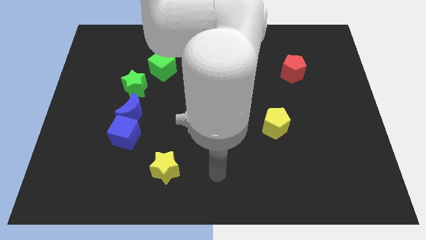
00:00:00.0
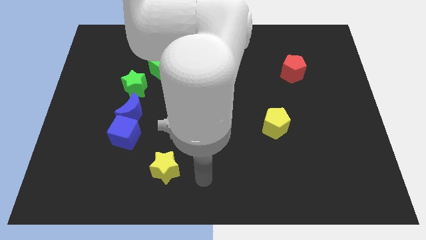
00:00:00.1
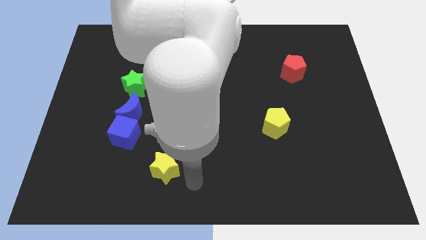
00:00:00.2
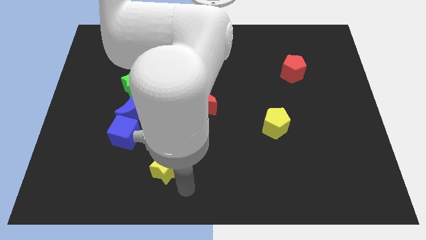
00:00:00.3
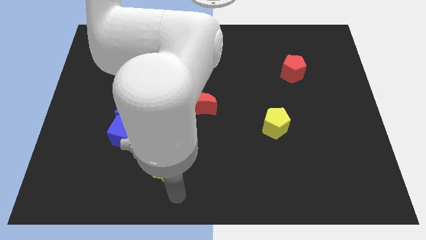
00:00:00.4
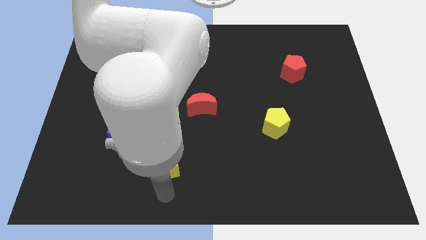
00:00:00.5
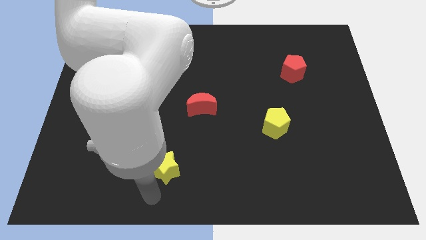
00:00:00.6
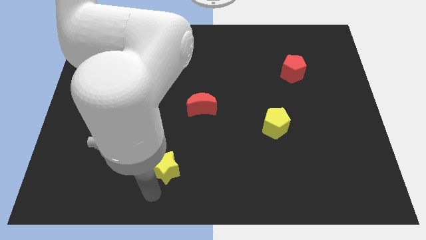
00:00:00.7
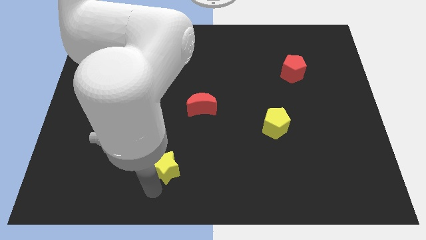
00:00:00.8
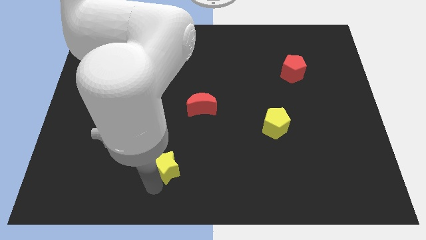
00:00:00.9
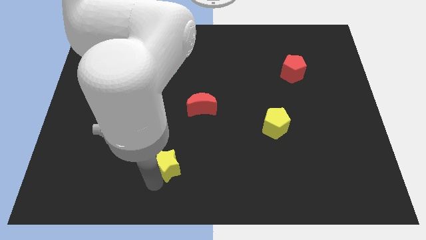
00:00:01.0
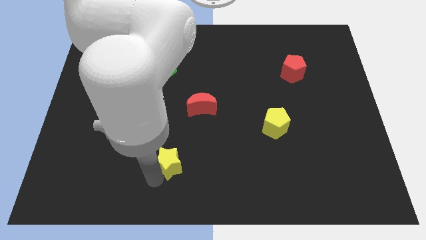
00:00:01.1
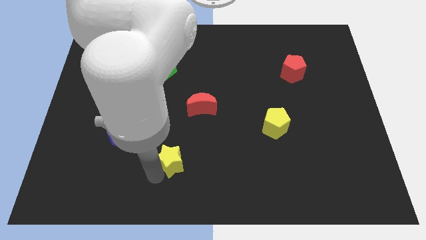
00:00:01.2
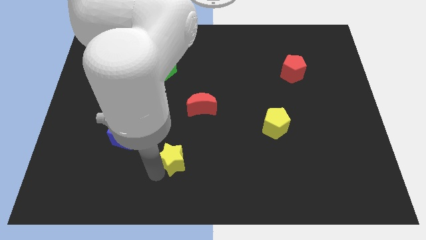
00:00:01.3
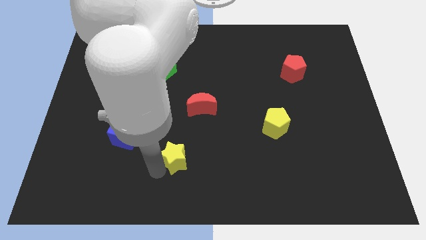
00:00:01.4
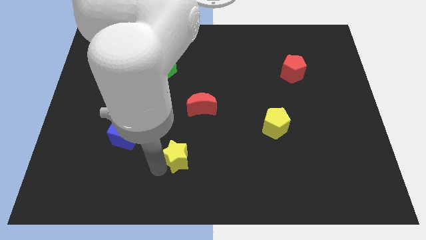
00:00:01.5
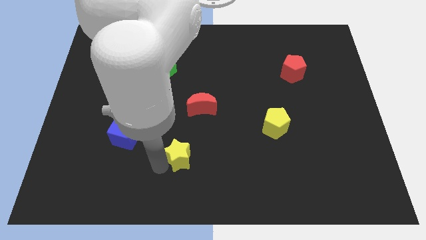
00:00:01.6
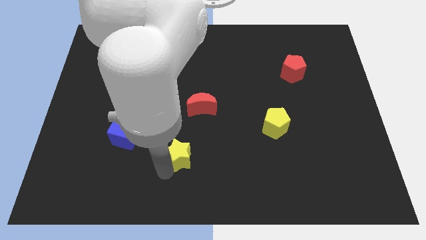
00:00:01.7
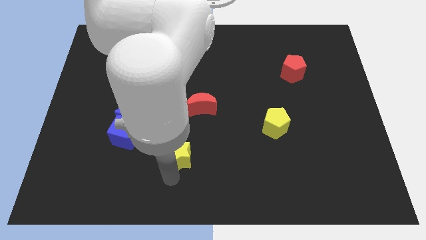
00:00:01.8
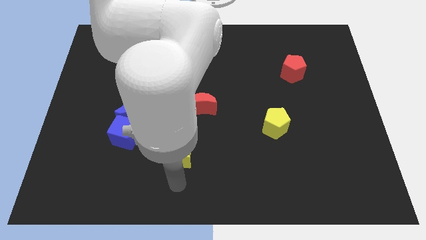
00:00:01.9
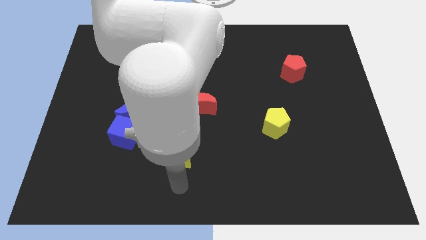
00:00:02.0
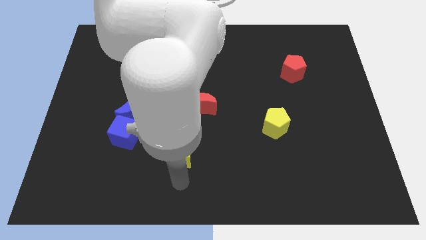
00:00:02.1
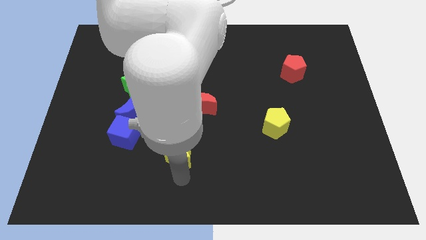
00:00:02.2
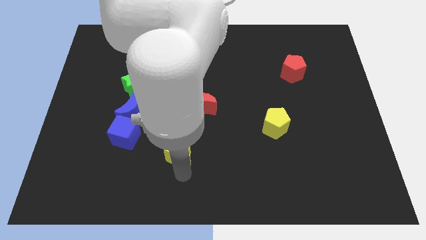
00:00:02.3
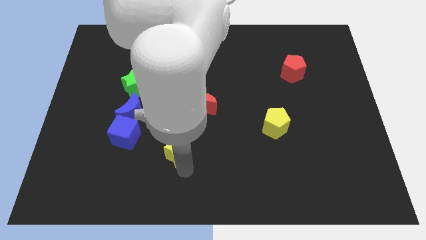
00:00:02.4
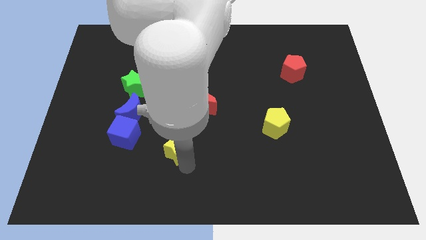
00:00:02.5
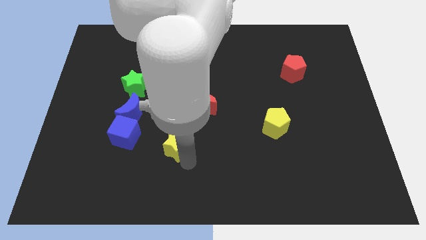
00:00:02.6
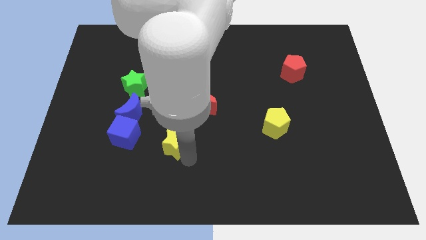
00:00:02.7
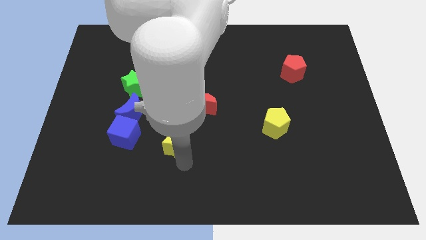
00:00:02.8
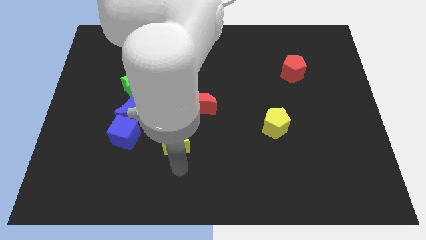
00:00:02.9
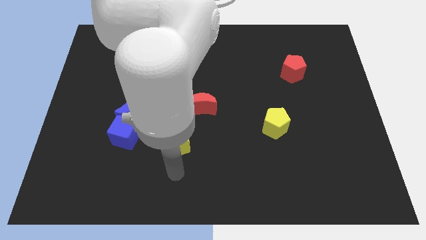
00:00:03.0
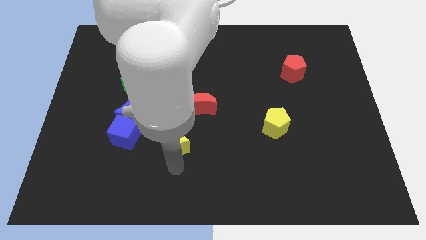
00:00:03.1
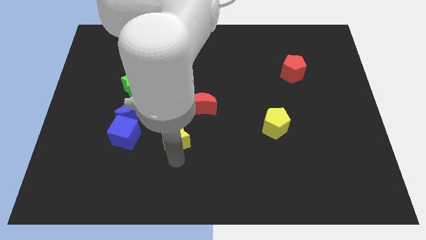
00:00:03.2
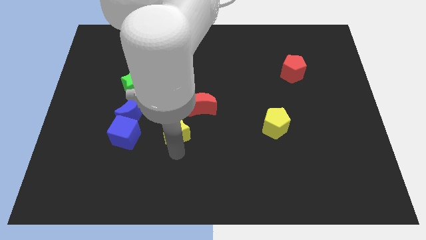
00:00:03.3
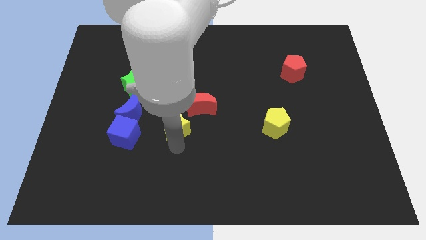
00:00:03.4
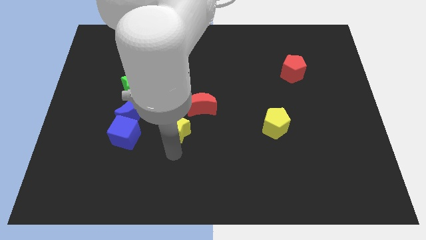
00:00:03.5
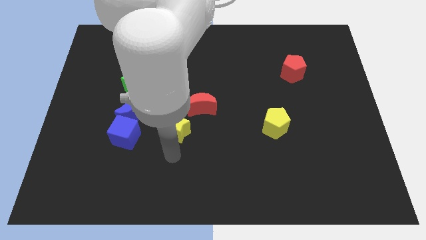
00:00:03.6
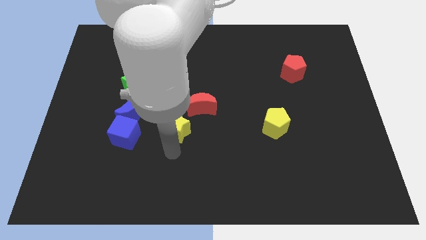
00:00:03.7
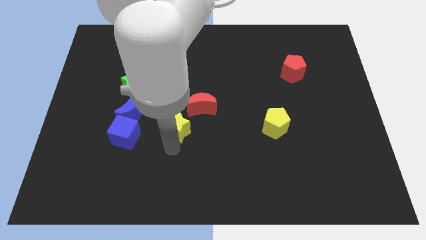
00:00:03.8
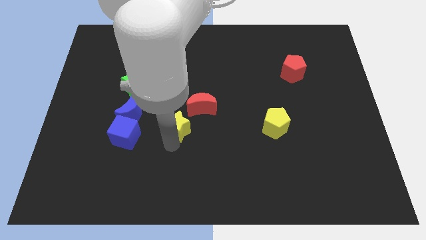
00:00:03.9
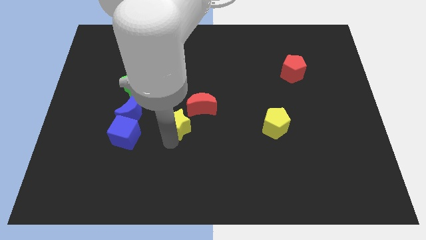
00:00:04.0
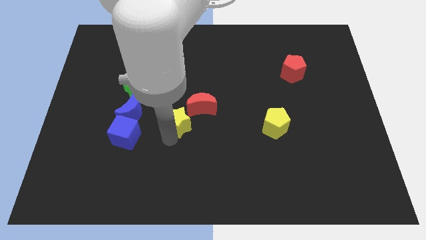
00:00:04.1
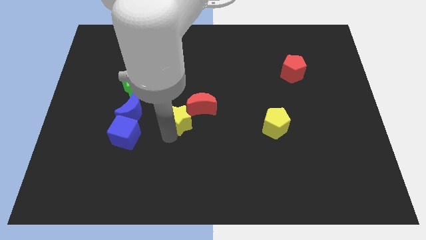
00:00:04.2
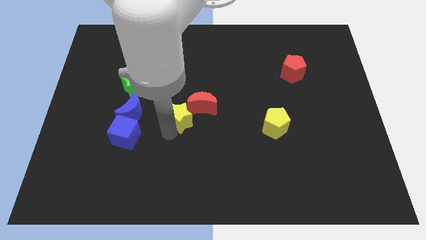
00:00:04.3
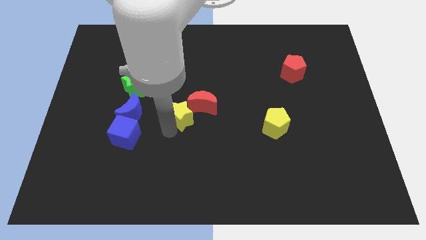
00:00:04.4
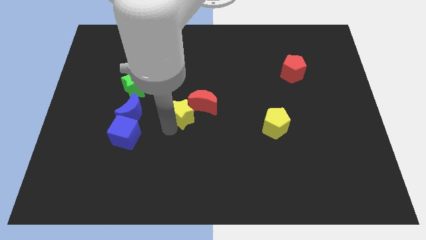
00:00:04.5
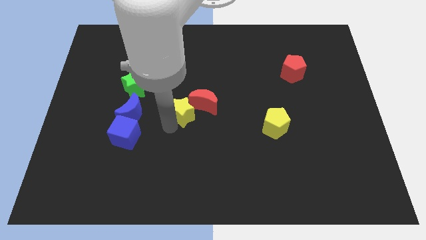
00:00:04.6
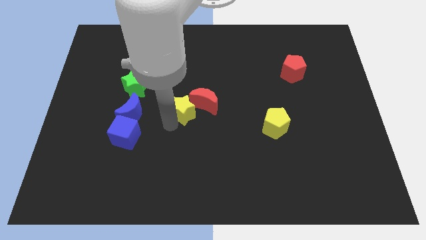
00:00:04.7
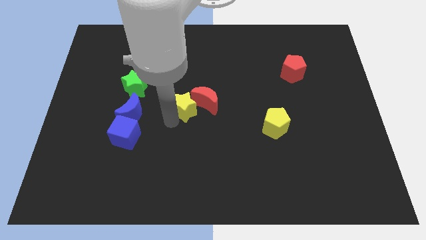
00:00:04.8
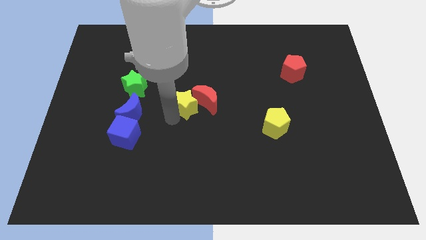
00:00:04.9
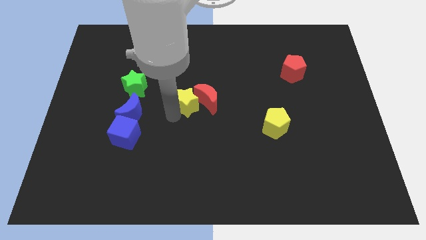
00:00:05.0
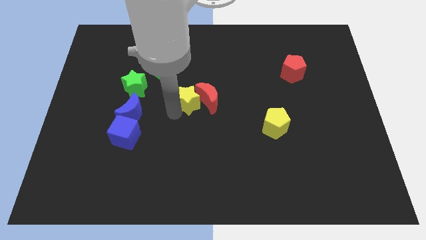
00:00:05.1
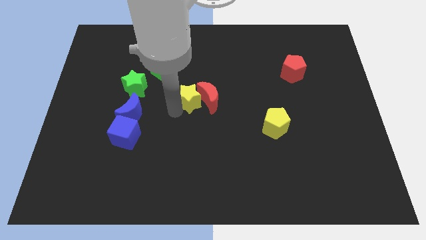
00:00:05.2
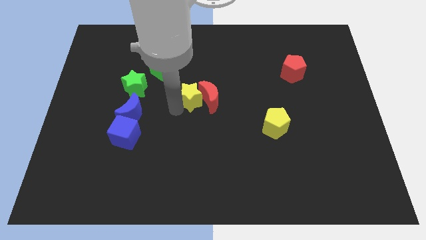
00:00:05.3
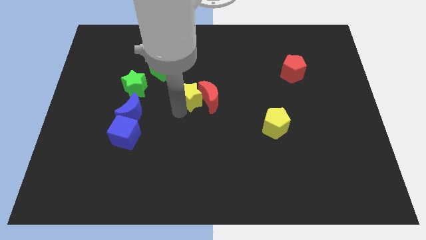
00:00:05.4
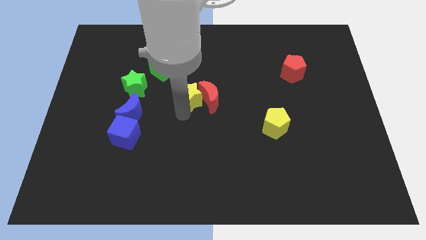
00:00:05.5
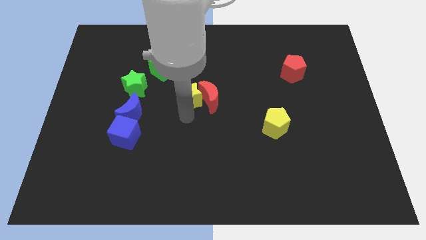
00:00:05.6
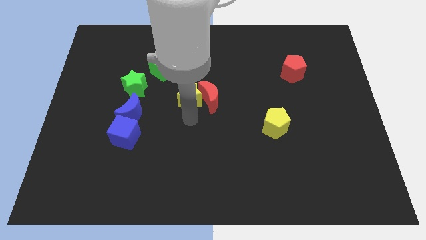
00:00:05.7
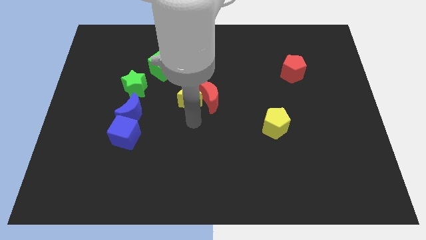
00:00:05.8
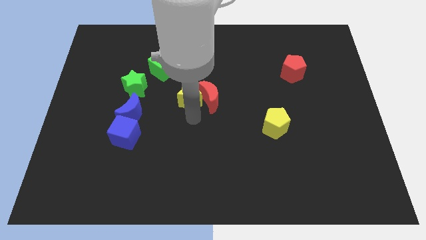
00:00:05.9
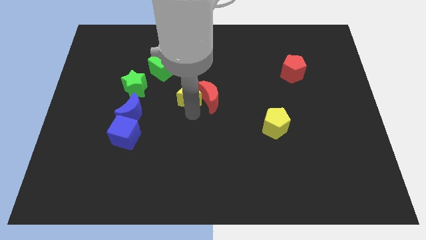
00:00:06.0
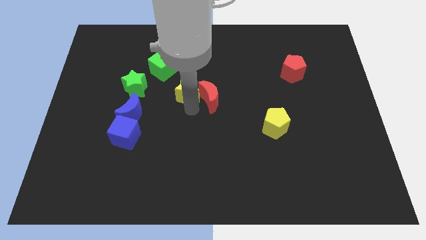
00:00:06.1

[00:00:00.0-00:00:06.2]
move the yellow star up

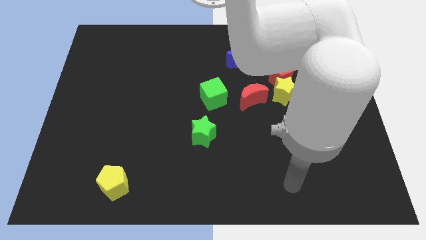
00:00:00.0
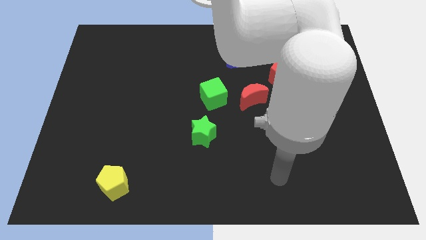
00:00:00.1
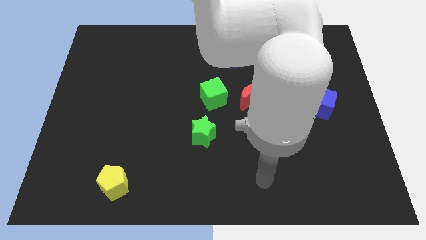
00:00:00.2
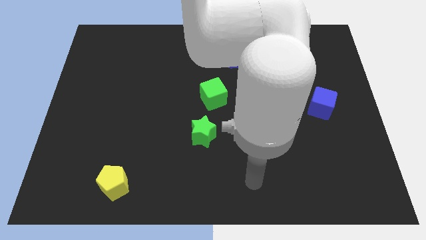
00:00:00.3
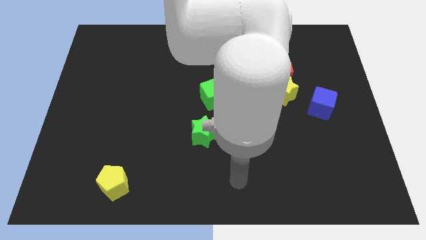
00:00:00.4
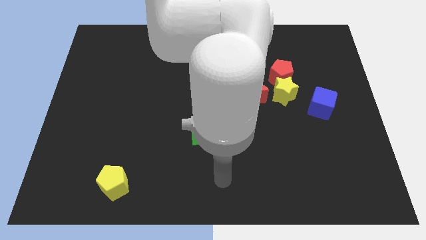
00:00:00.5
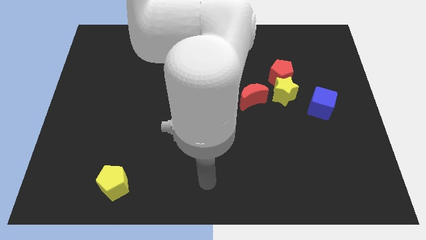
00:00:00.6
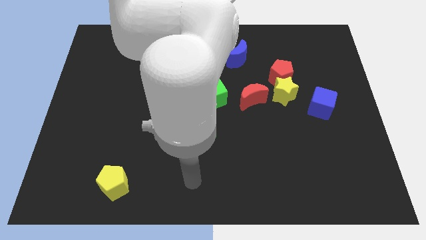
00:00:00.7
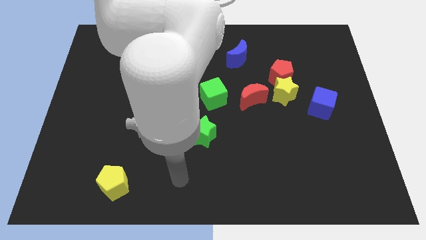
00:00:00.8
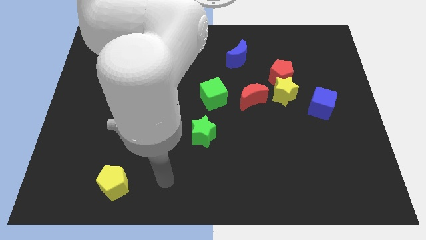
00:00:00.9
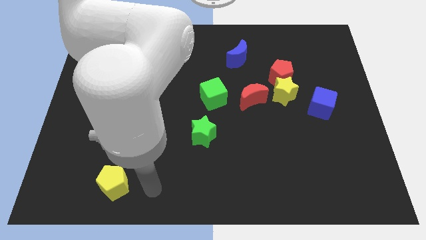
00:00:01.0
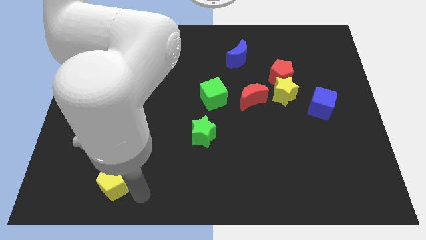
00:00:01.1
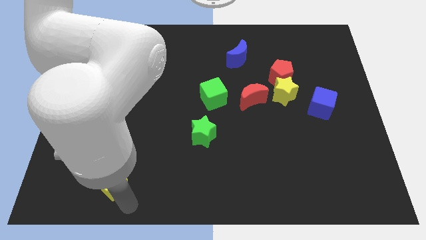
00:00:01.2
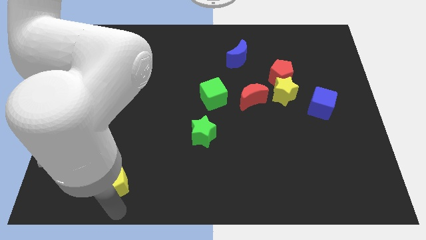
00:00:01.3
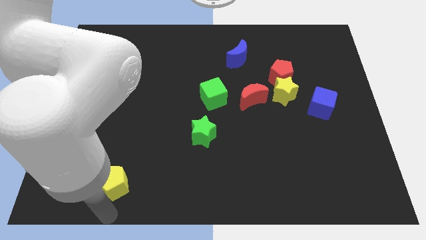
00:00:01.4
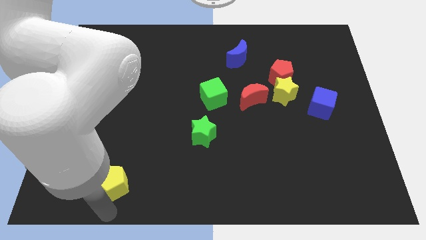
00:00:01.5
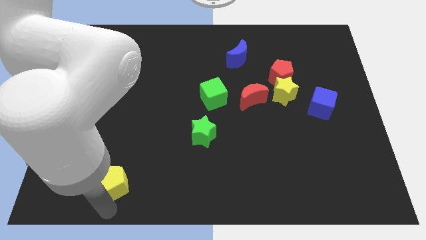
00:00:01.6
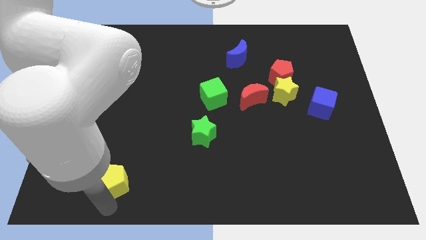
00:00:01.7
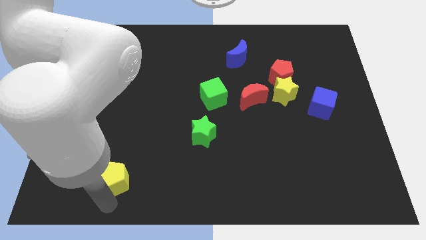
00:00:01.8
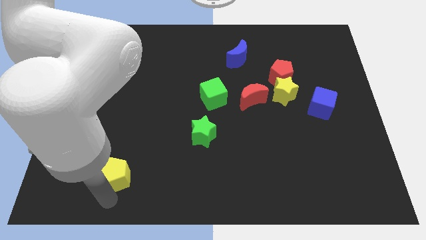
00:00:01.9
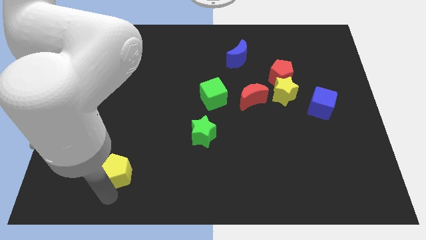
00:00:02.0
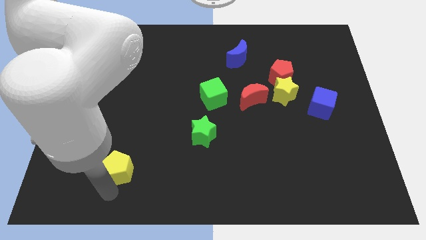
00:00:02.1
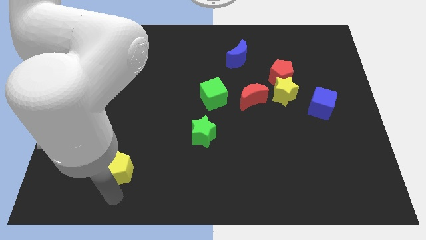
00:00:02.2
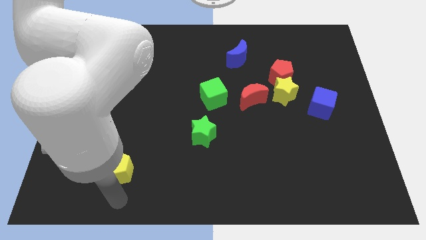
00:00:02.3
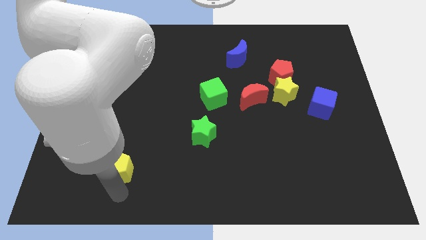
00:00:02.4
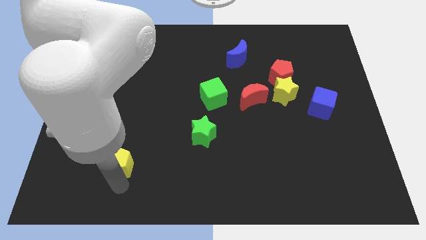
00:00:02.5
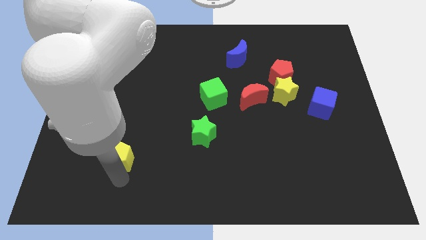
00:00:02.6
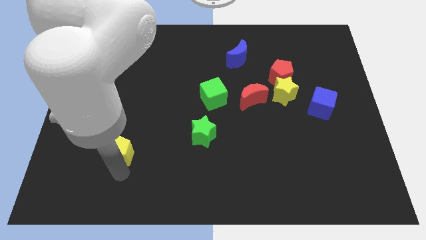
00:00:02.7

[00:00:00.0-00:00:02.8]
slide the yellow pentagon slightly upwards
